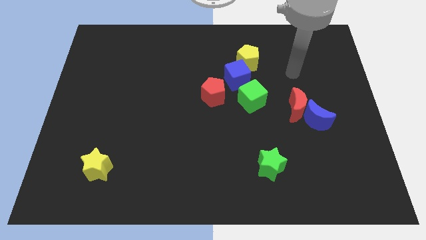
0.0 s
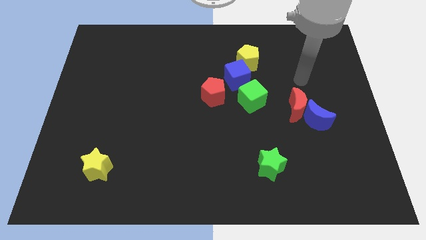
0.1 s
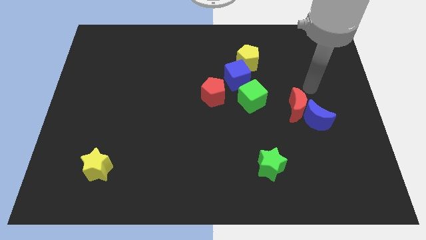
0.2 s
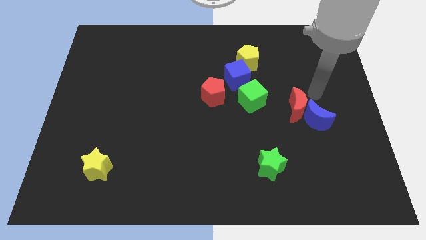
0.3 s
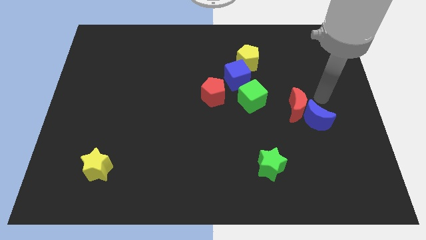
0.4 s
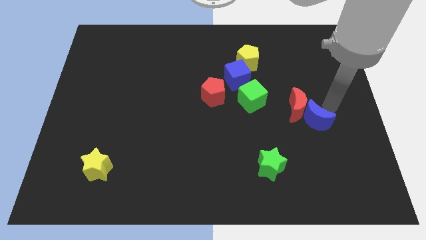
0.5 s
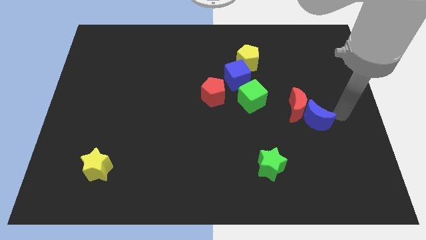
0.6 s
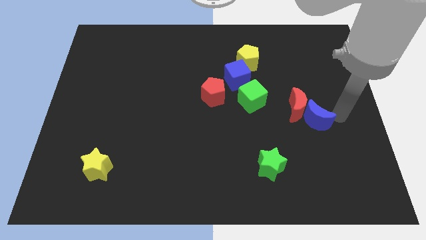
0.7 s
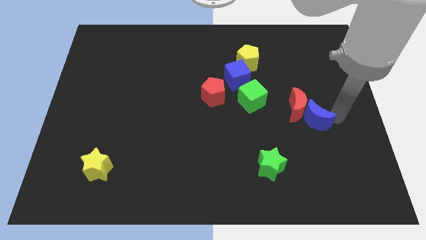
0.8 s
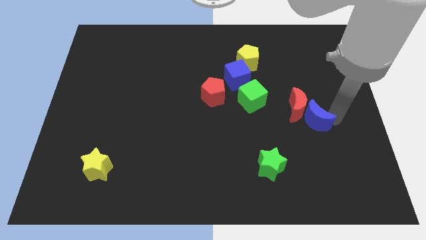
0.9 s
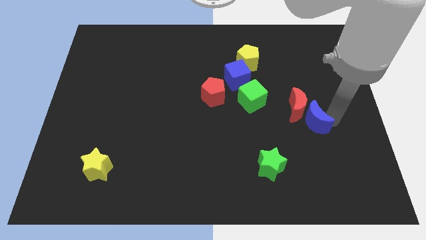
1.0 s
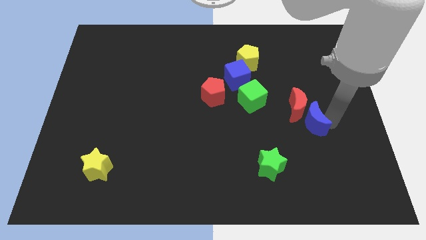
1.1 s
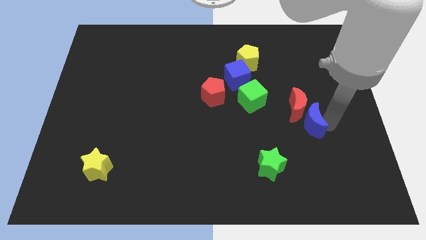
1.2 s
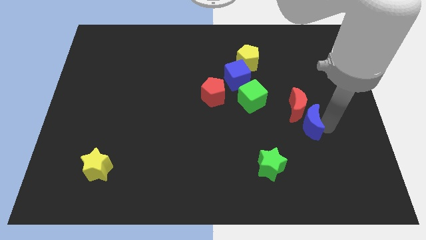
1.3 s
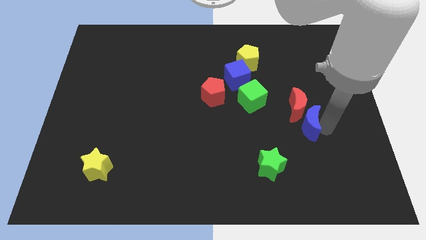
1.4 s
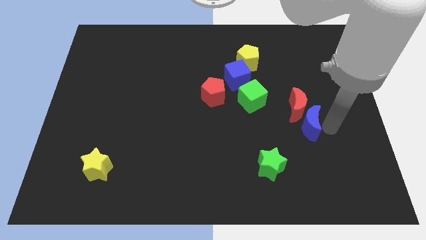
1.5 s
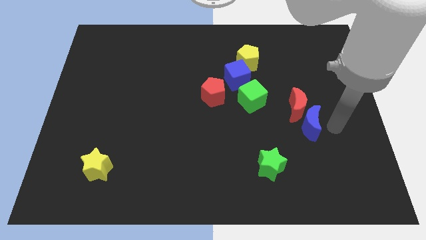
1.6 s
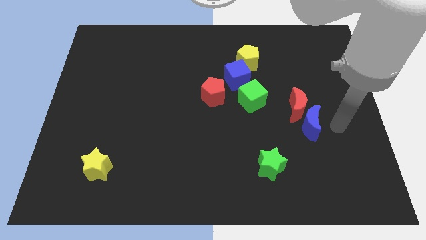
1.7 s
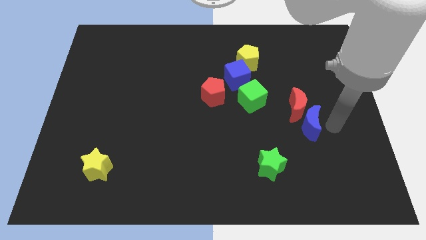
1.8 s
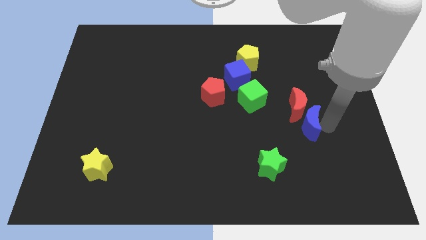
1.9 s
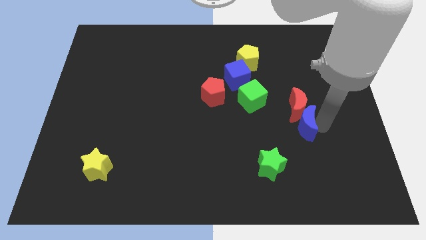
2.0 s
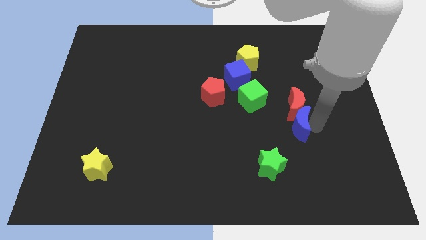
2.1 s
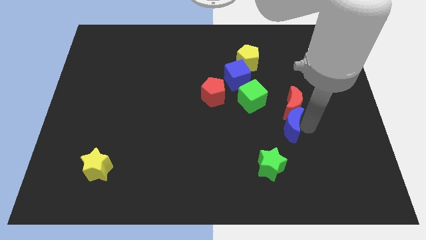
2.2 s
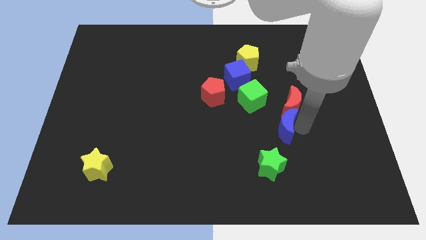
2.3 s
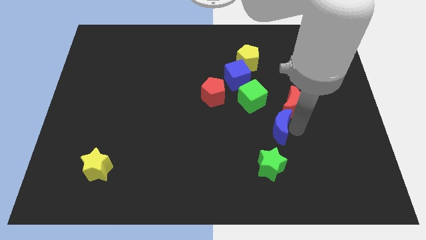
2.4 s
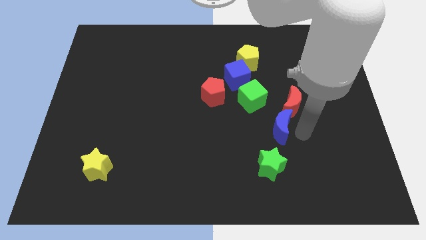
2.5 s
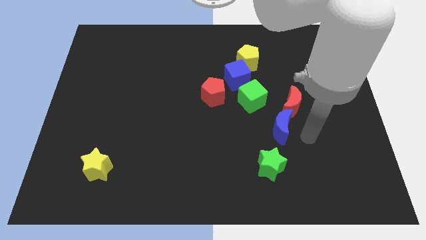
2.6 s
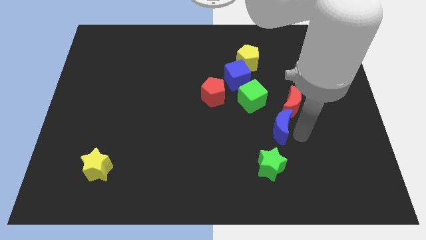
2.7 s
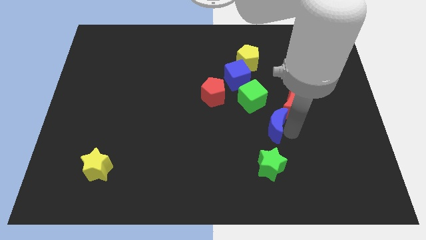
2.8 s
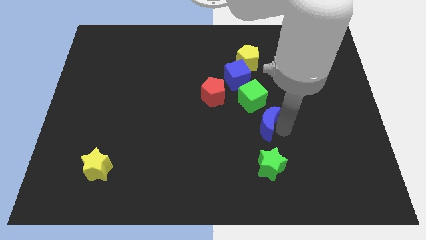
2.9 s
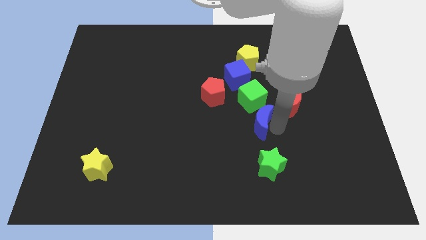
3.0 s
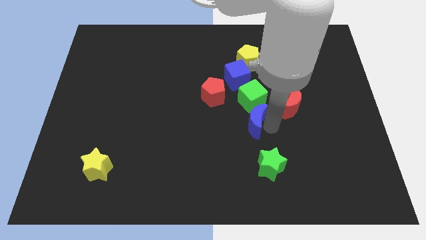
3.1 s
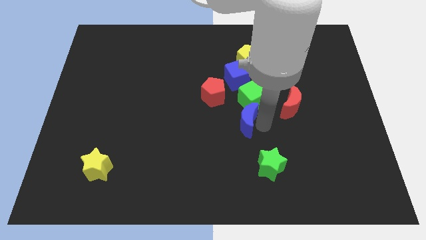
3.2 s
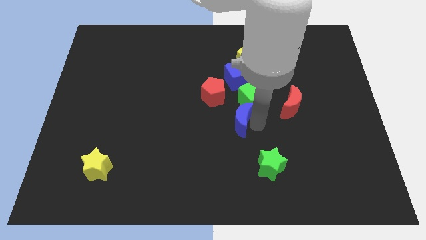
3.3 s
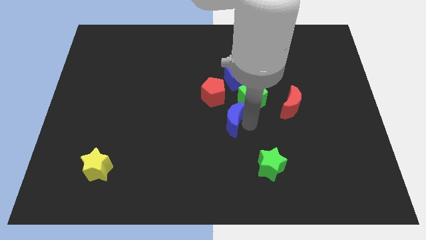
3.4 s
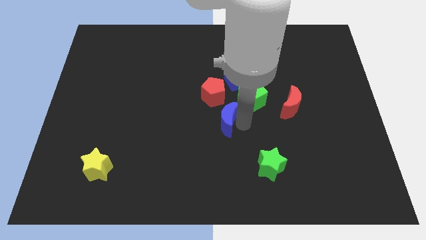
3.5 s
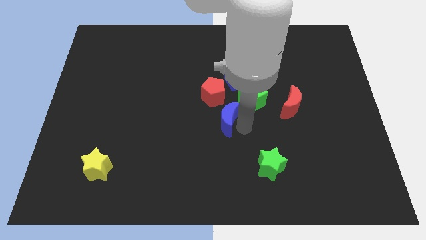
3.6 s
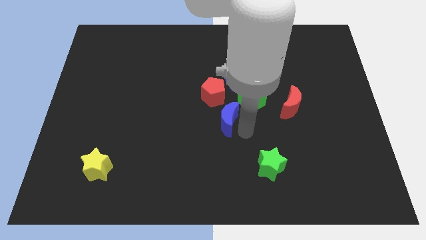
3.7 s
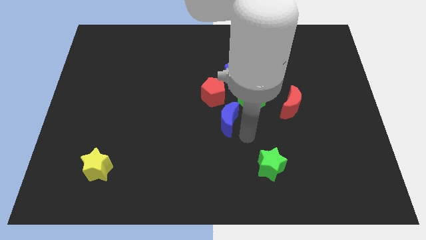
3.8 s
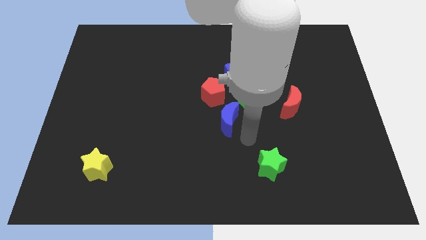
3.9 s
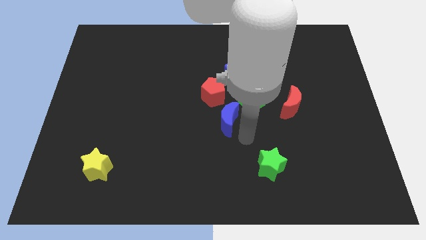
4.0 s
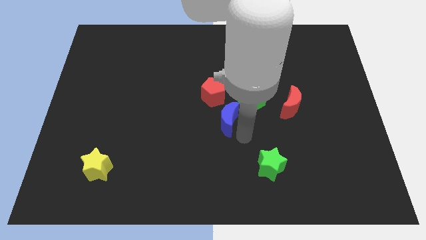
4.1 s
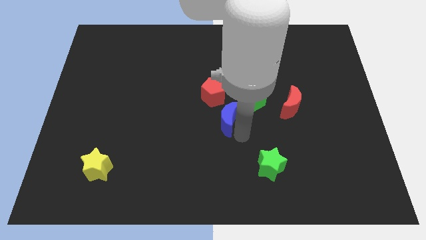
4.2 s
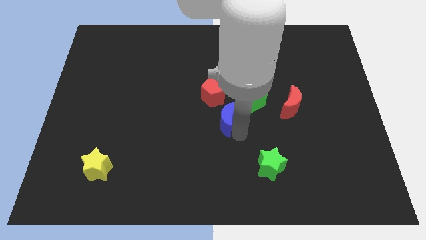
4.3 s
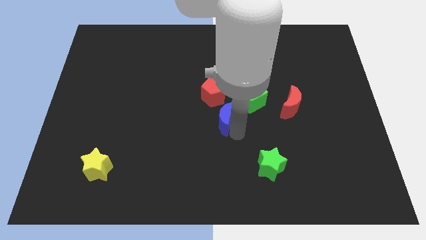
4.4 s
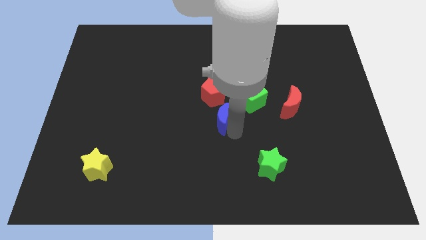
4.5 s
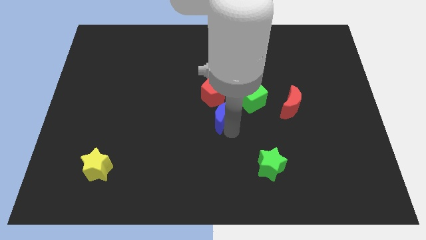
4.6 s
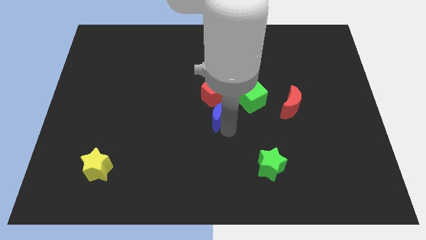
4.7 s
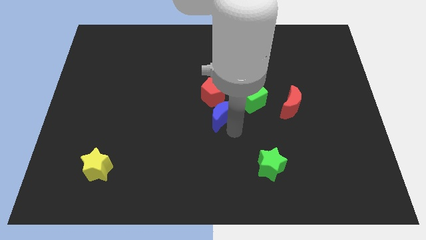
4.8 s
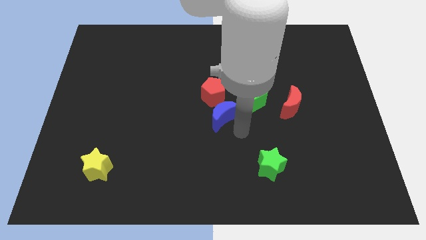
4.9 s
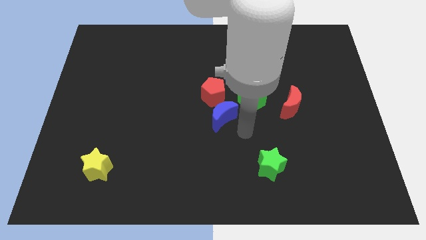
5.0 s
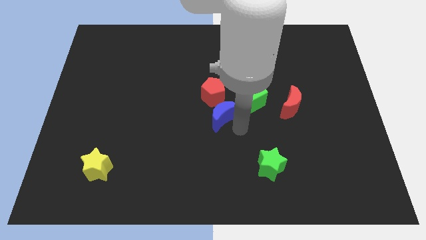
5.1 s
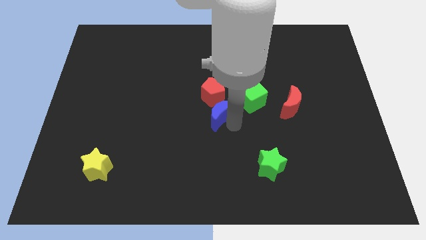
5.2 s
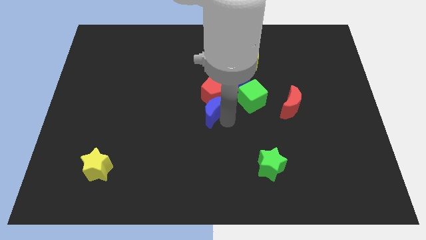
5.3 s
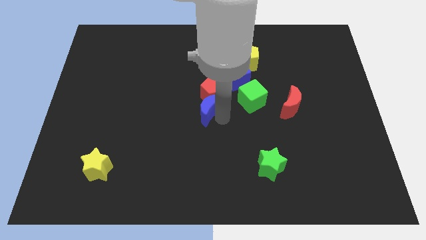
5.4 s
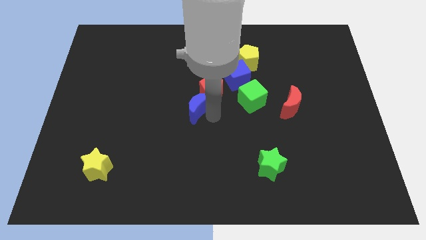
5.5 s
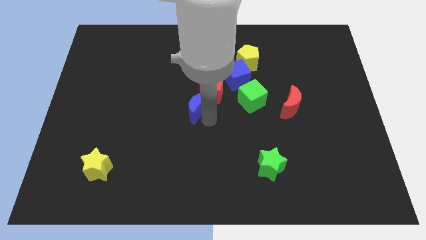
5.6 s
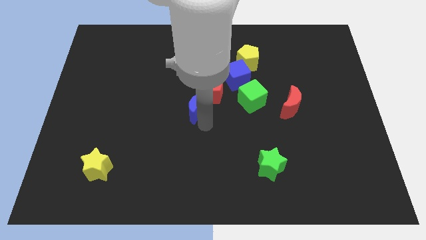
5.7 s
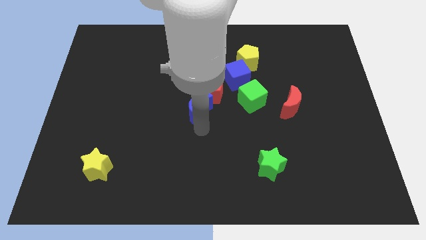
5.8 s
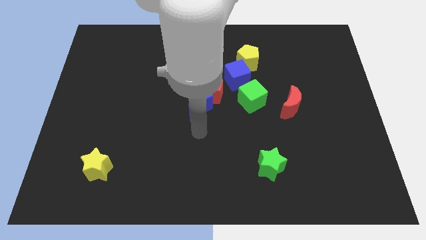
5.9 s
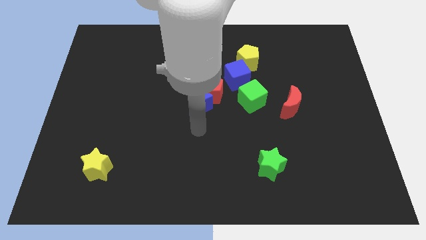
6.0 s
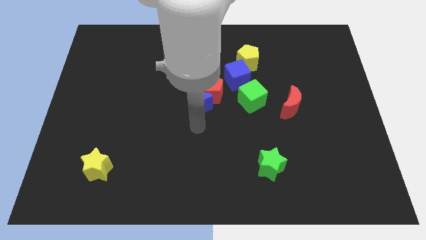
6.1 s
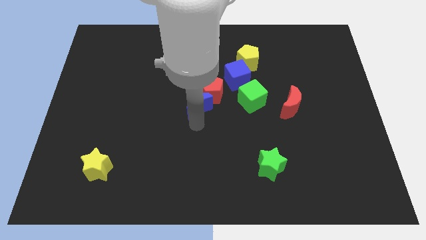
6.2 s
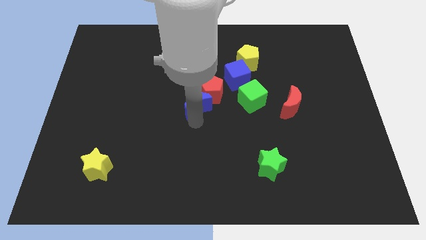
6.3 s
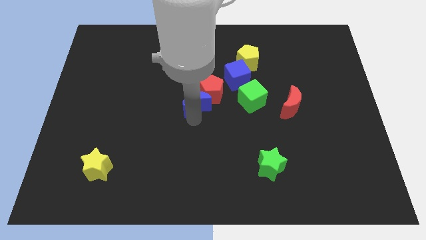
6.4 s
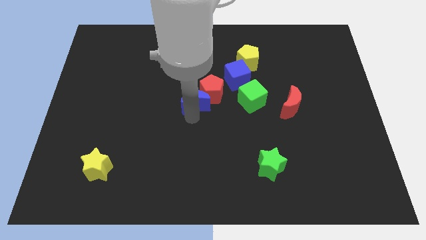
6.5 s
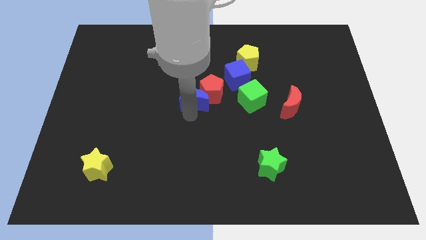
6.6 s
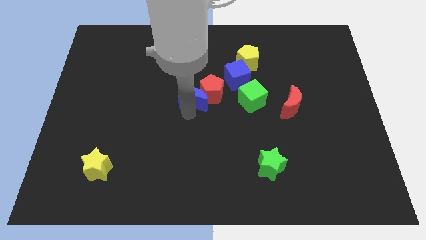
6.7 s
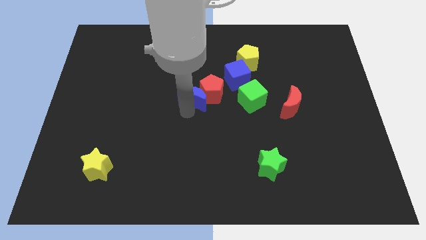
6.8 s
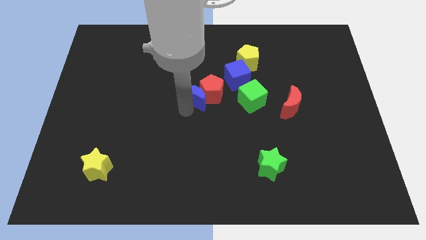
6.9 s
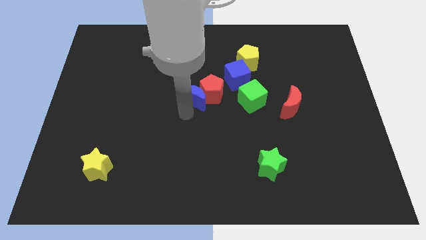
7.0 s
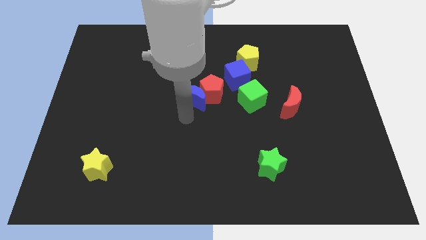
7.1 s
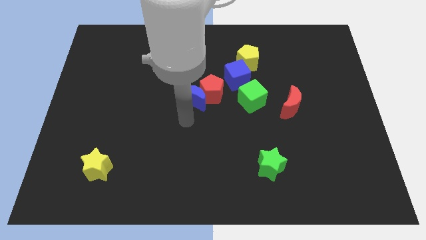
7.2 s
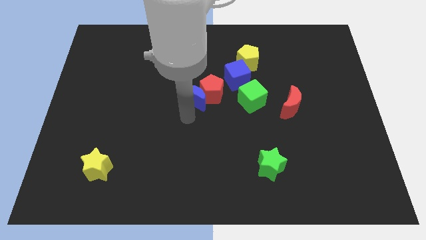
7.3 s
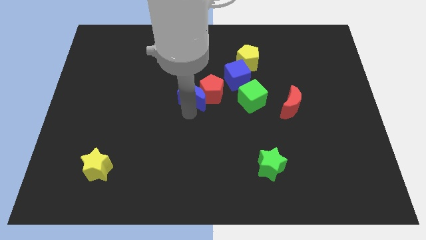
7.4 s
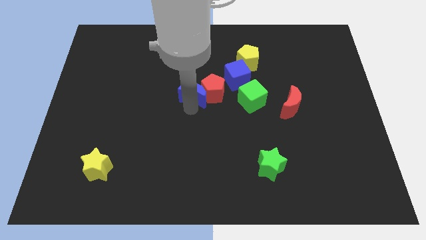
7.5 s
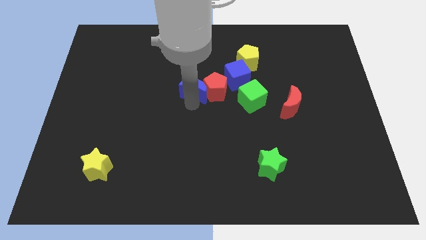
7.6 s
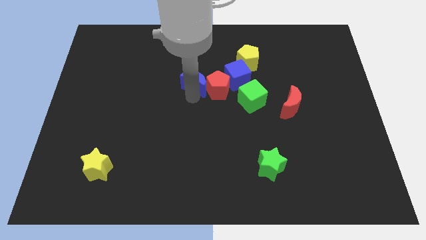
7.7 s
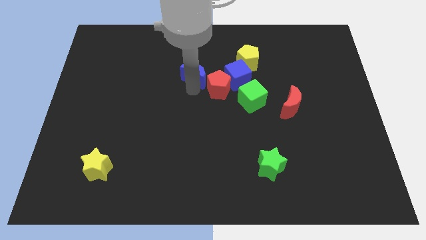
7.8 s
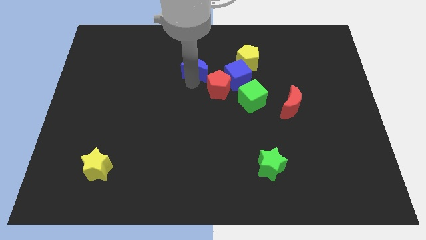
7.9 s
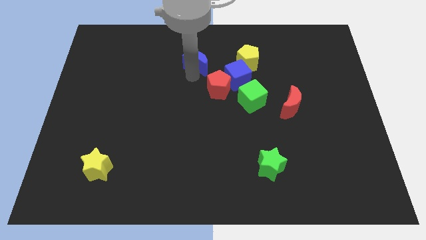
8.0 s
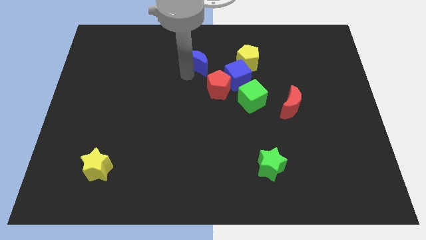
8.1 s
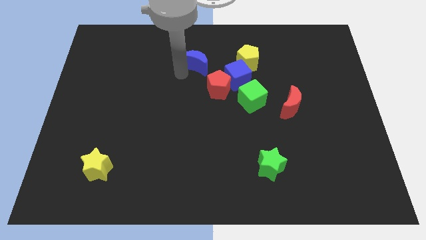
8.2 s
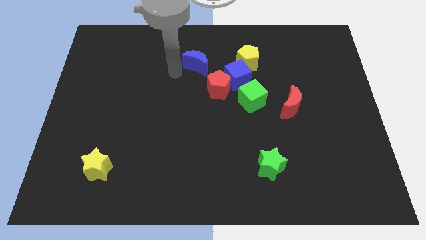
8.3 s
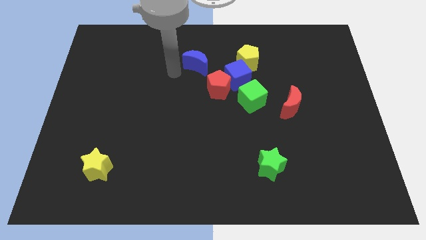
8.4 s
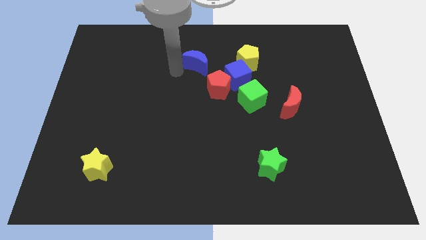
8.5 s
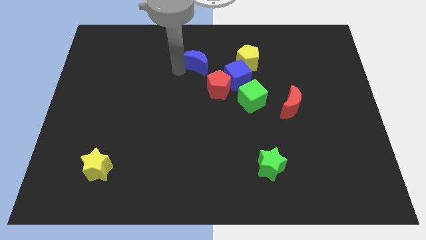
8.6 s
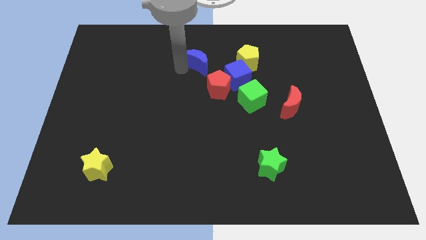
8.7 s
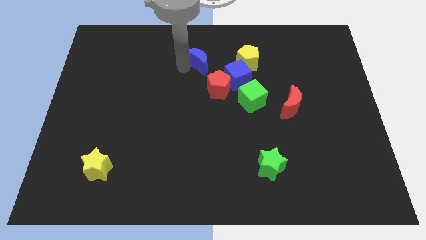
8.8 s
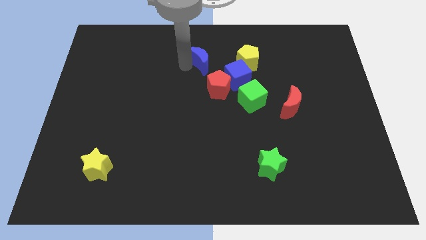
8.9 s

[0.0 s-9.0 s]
slide the blue moon to the top side of the red pentagon
